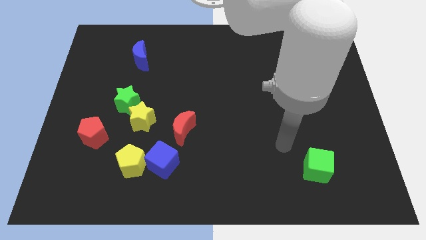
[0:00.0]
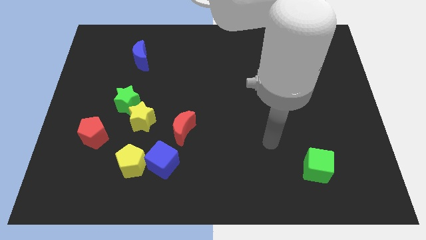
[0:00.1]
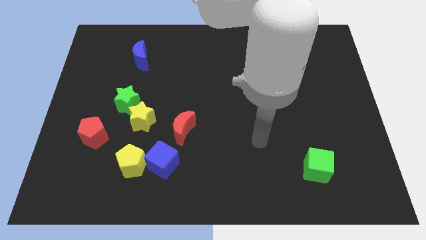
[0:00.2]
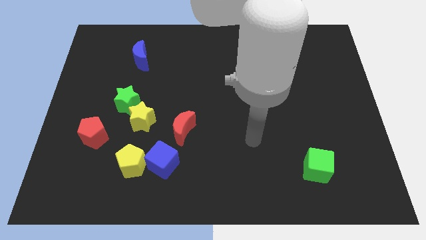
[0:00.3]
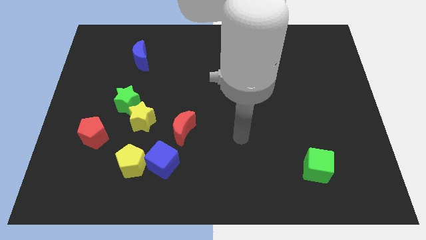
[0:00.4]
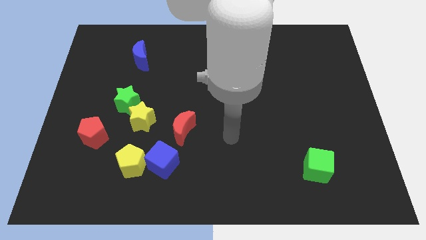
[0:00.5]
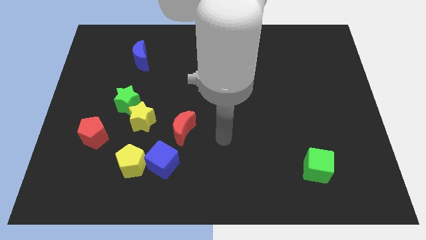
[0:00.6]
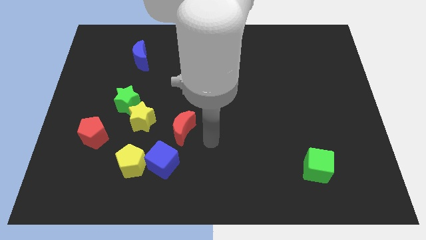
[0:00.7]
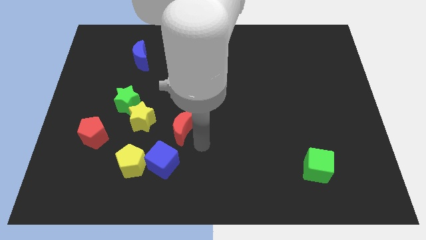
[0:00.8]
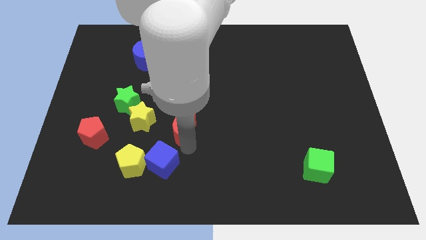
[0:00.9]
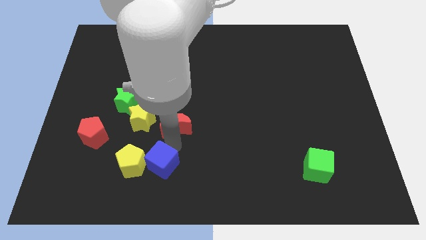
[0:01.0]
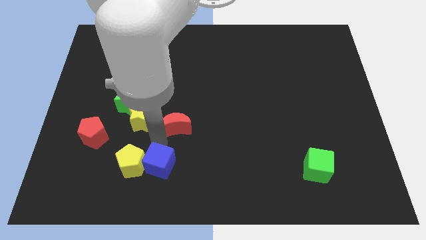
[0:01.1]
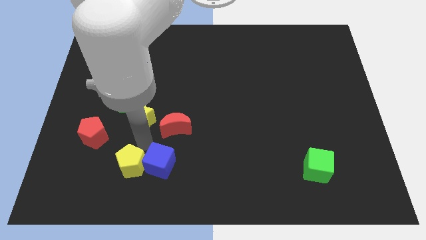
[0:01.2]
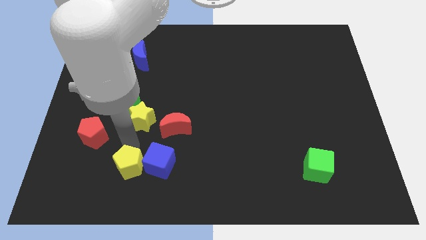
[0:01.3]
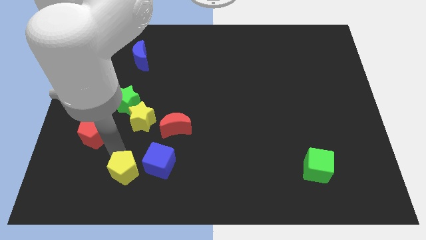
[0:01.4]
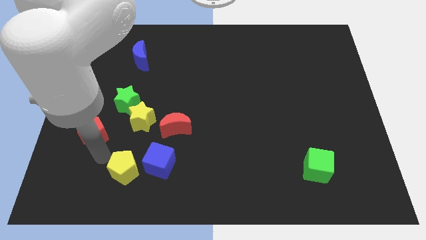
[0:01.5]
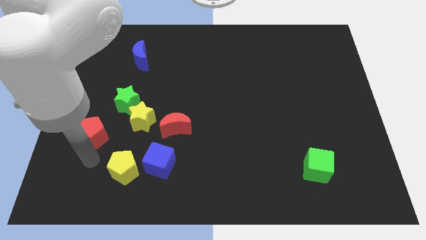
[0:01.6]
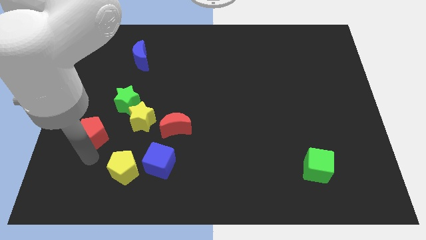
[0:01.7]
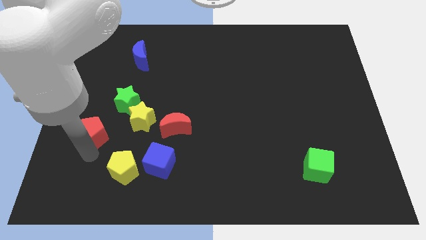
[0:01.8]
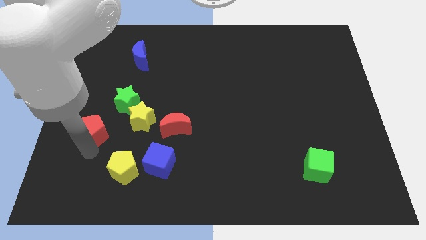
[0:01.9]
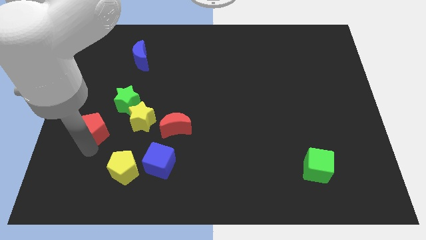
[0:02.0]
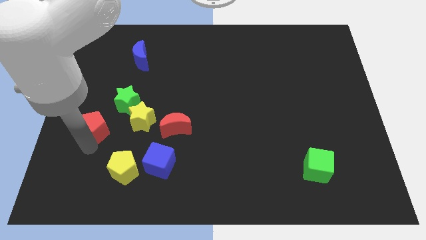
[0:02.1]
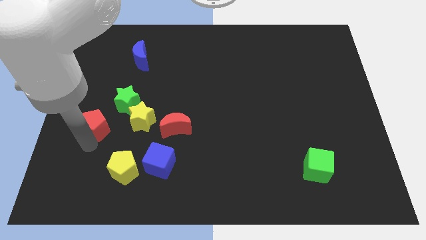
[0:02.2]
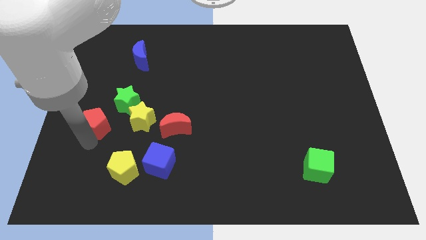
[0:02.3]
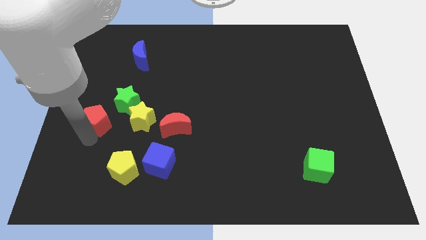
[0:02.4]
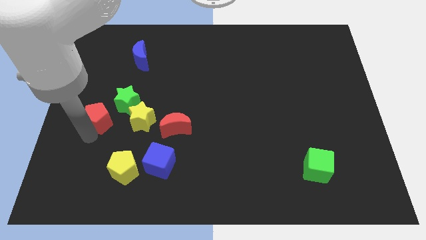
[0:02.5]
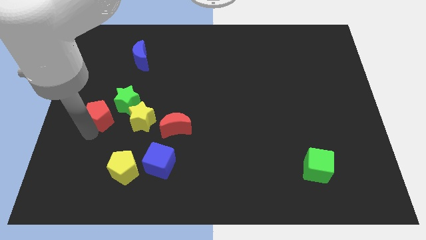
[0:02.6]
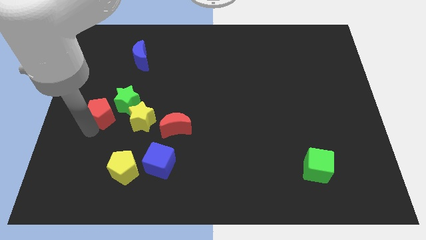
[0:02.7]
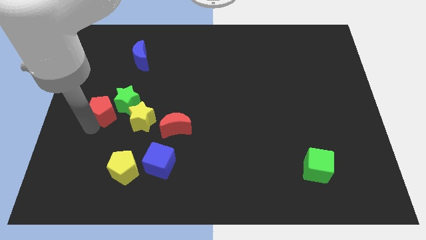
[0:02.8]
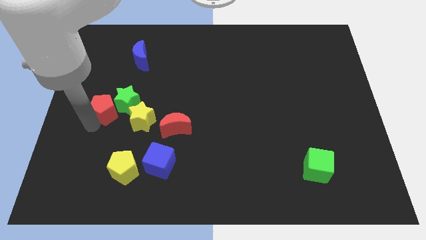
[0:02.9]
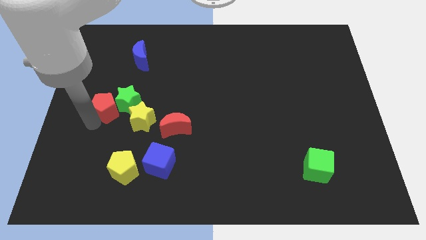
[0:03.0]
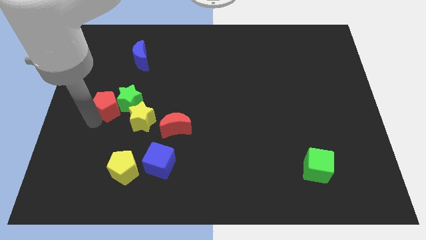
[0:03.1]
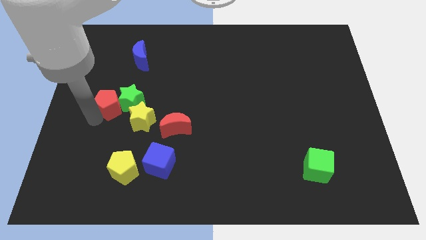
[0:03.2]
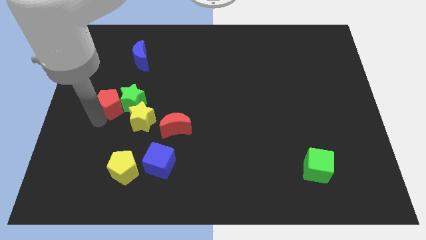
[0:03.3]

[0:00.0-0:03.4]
push the red pentagon a little upwards and right

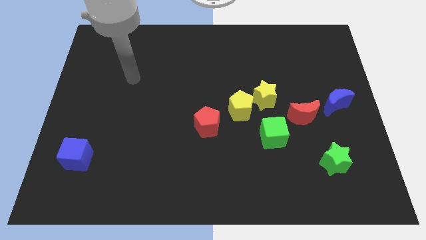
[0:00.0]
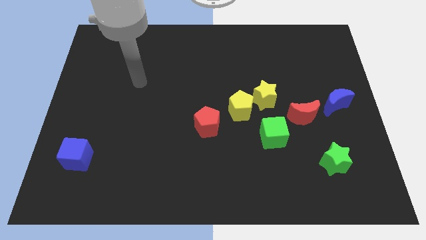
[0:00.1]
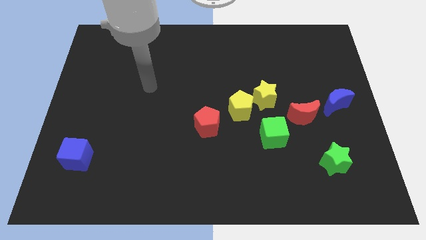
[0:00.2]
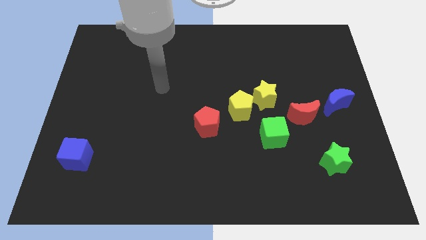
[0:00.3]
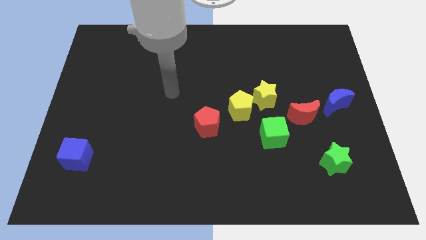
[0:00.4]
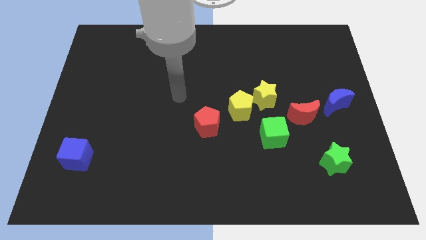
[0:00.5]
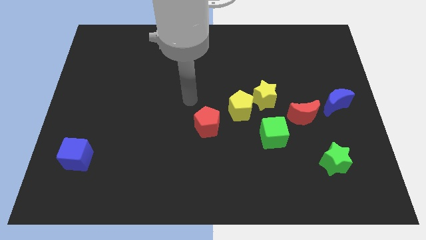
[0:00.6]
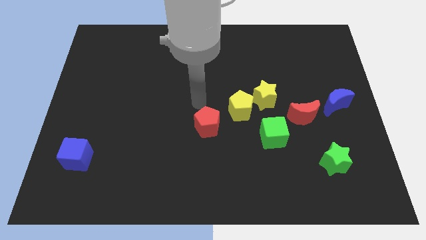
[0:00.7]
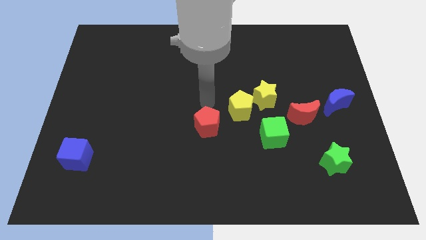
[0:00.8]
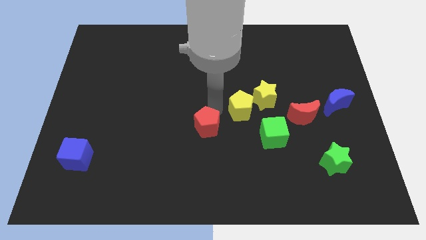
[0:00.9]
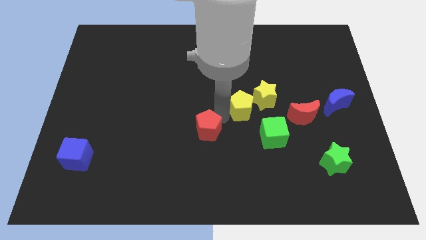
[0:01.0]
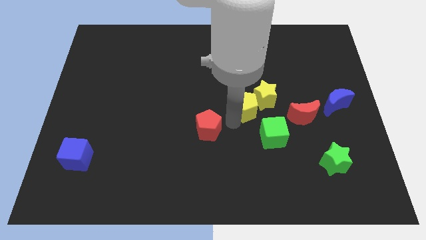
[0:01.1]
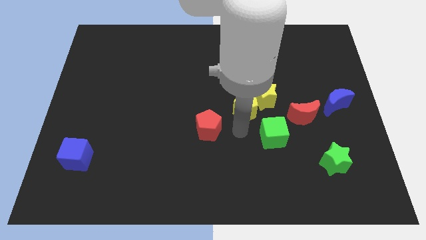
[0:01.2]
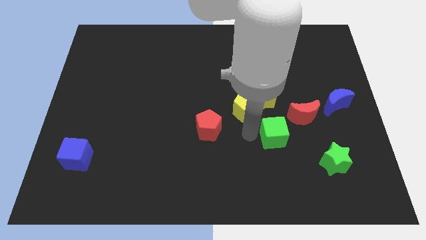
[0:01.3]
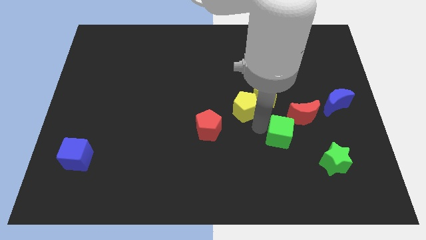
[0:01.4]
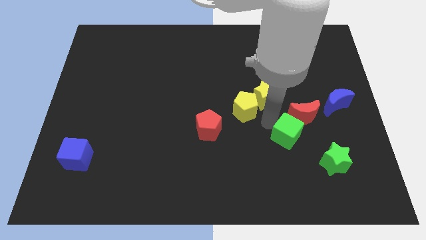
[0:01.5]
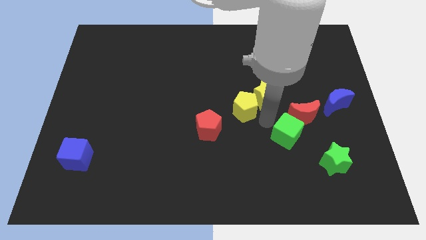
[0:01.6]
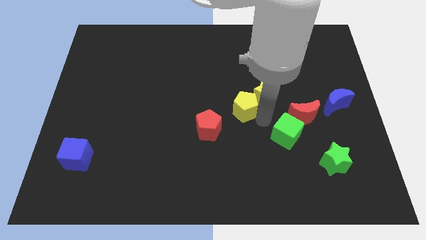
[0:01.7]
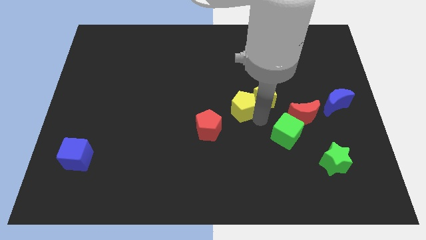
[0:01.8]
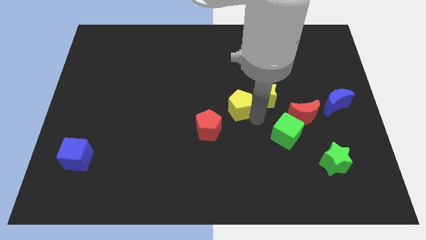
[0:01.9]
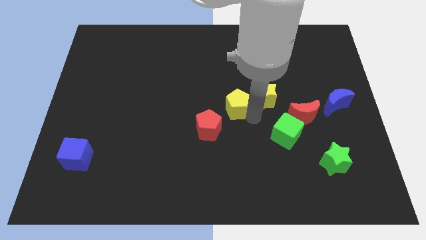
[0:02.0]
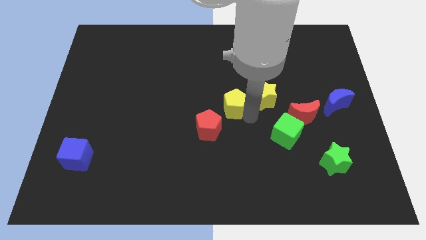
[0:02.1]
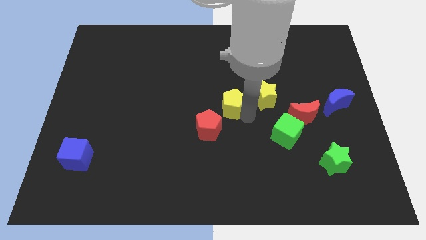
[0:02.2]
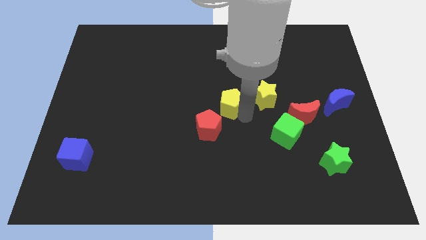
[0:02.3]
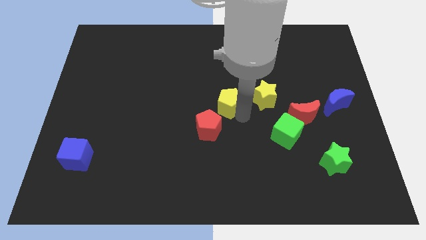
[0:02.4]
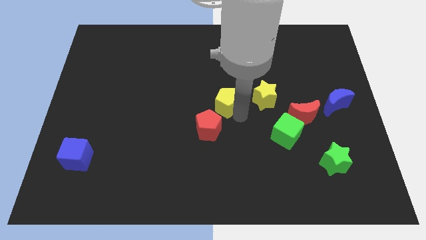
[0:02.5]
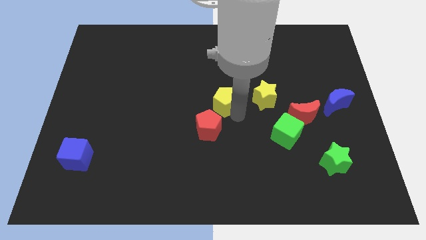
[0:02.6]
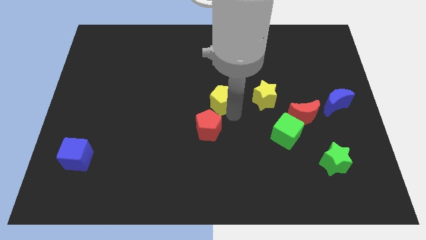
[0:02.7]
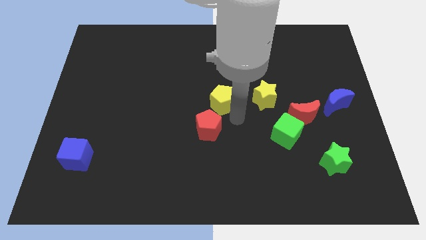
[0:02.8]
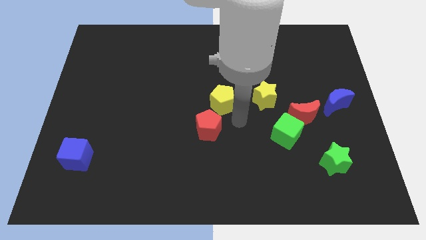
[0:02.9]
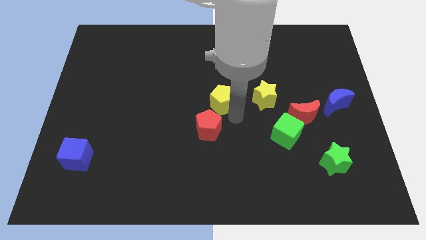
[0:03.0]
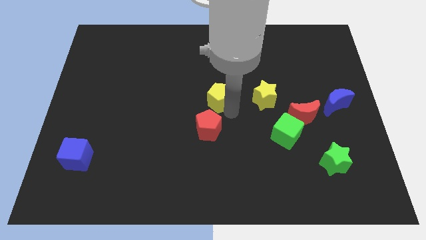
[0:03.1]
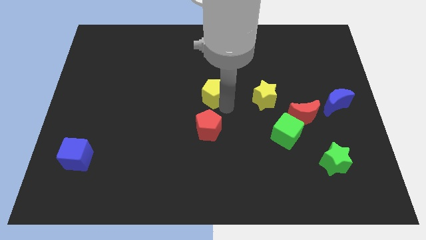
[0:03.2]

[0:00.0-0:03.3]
push the yellow pentagon a little upwards and then to the left

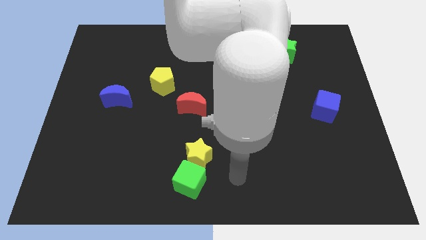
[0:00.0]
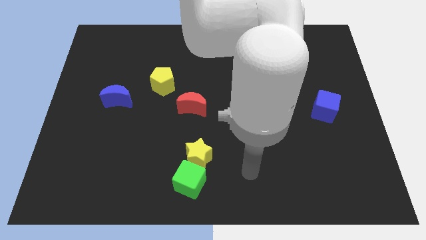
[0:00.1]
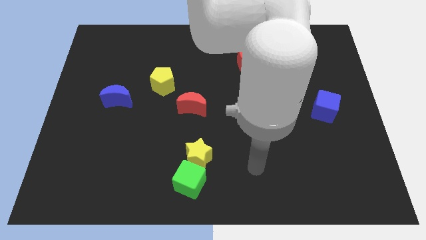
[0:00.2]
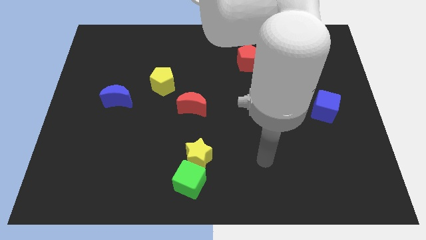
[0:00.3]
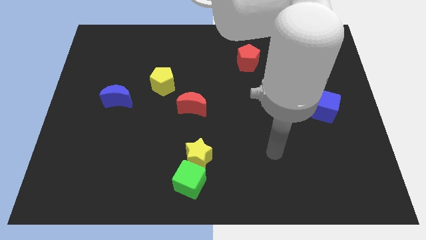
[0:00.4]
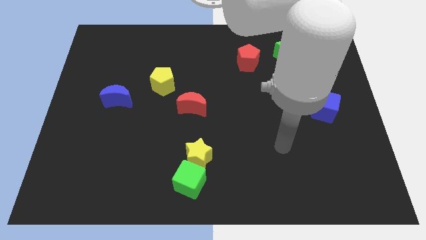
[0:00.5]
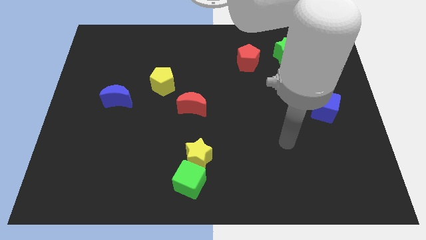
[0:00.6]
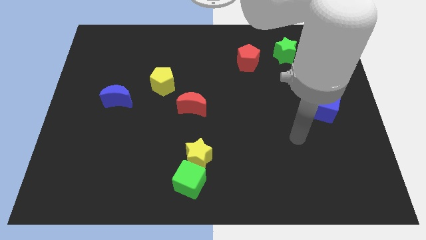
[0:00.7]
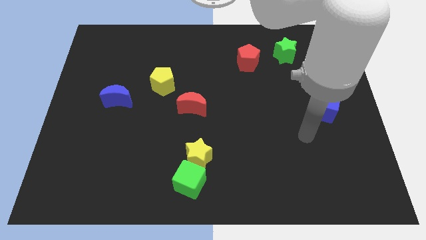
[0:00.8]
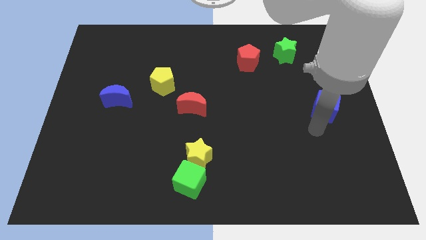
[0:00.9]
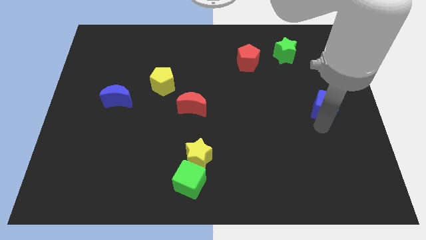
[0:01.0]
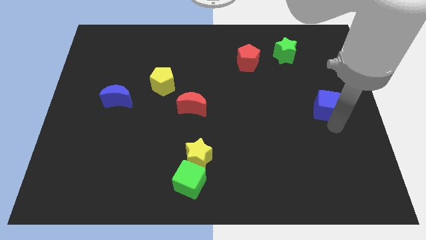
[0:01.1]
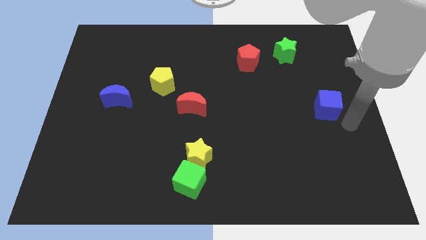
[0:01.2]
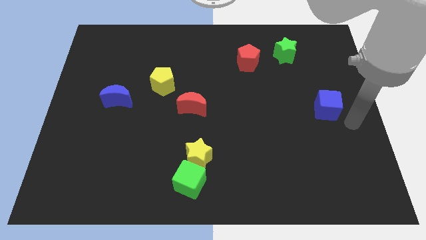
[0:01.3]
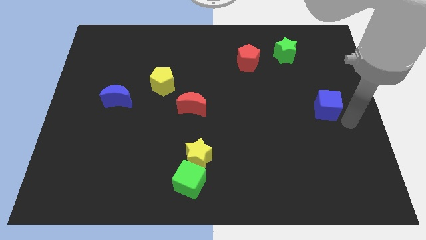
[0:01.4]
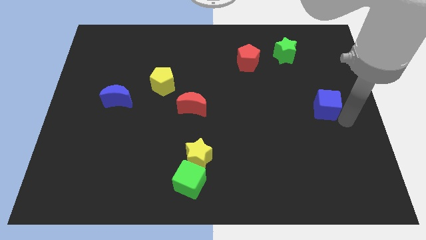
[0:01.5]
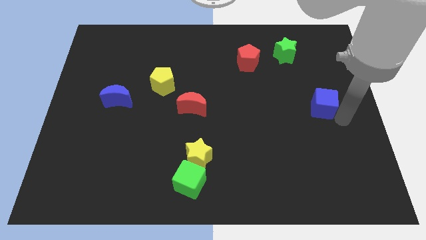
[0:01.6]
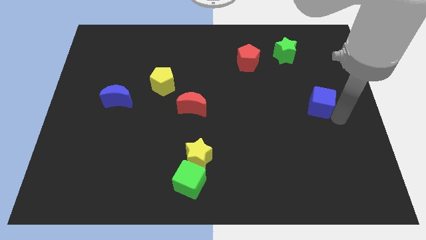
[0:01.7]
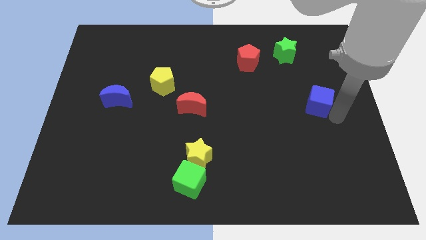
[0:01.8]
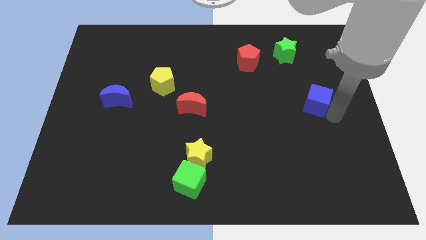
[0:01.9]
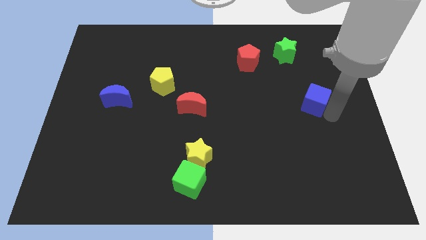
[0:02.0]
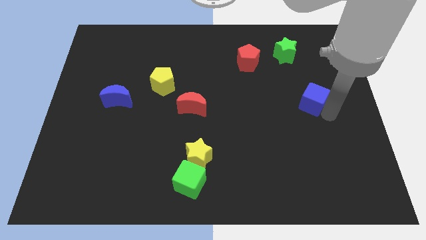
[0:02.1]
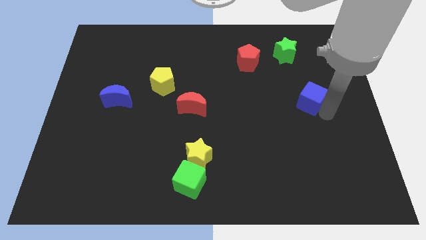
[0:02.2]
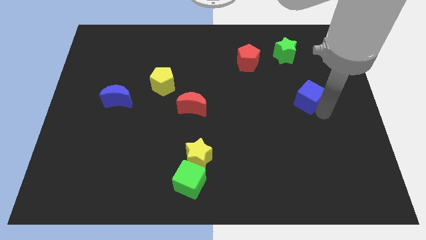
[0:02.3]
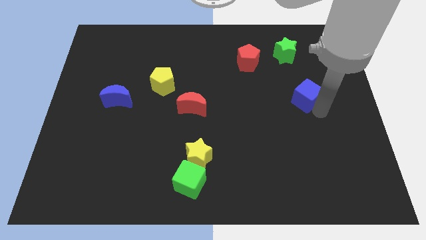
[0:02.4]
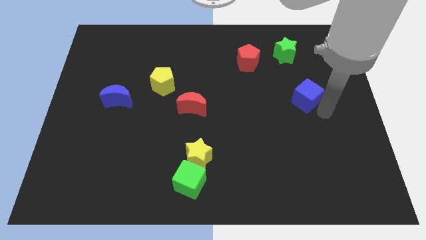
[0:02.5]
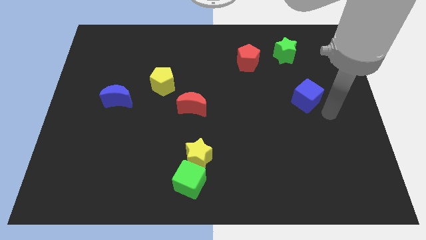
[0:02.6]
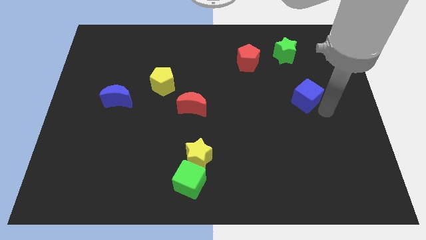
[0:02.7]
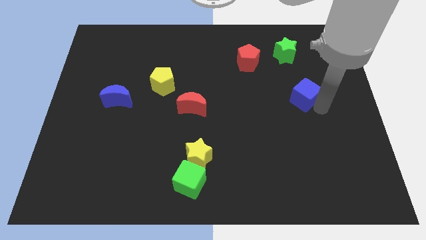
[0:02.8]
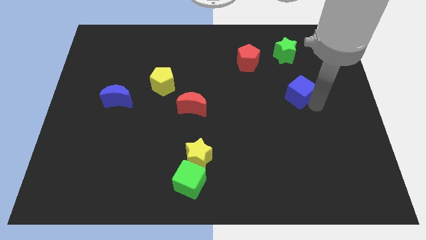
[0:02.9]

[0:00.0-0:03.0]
push the blue cube upwards and then to the left somewhat
